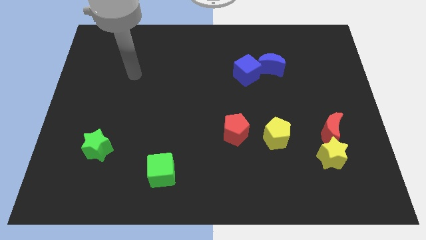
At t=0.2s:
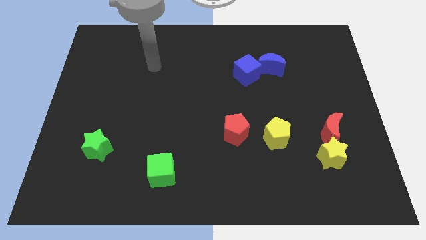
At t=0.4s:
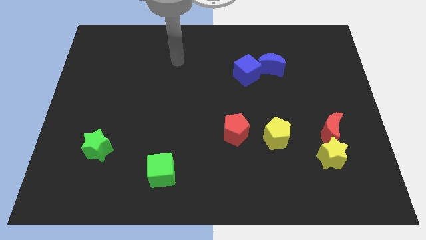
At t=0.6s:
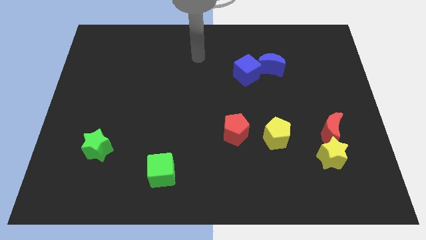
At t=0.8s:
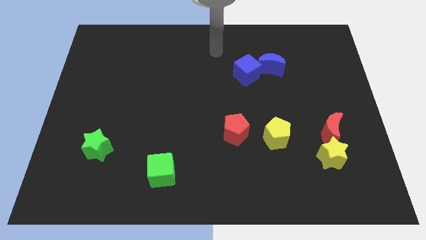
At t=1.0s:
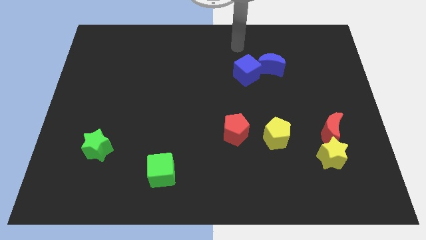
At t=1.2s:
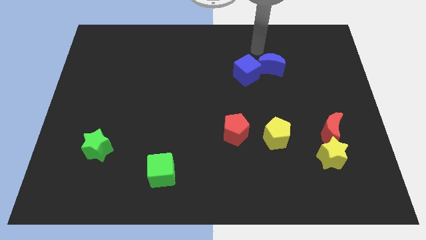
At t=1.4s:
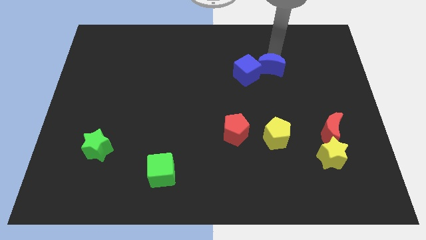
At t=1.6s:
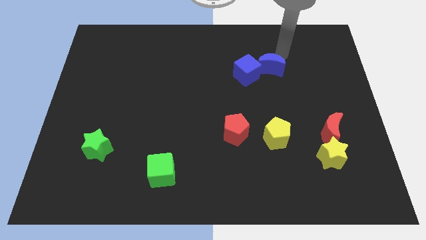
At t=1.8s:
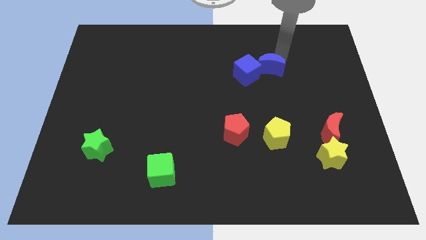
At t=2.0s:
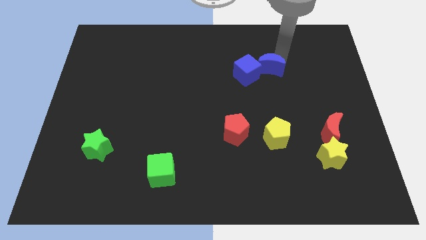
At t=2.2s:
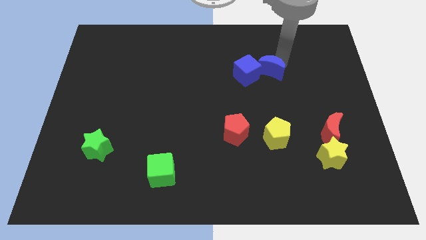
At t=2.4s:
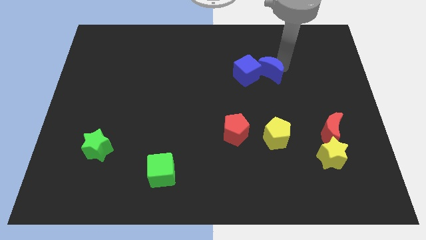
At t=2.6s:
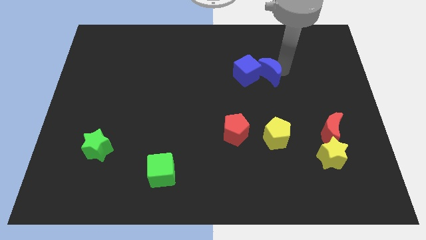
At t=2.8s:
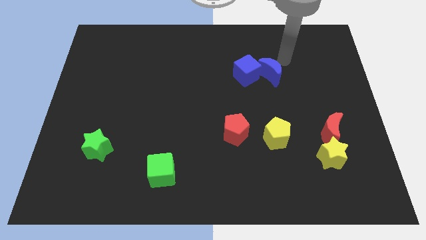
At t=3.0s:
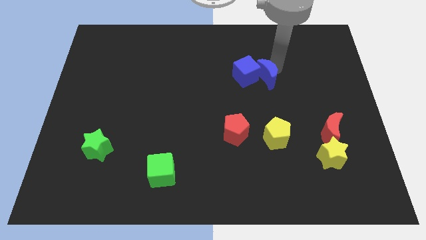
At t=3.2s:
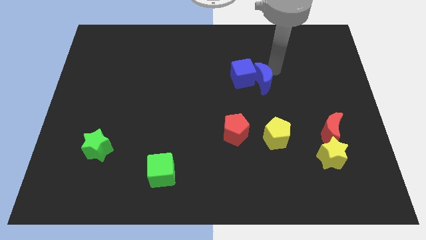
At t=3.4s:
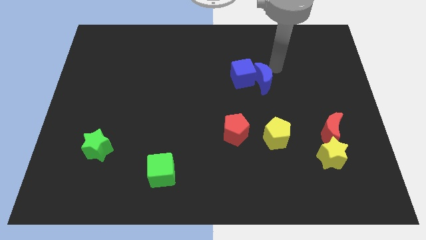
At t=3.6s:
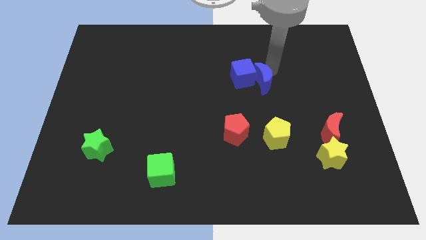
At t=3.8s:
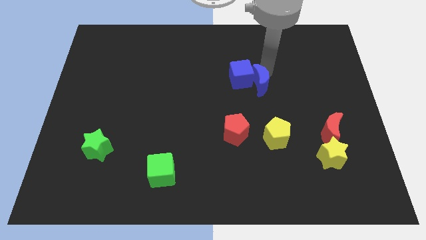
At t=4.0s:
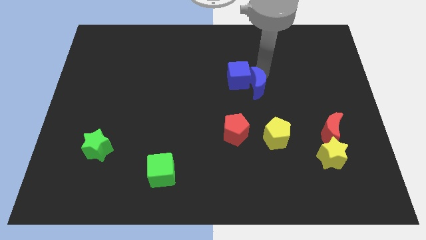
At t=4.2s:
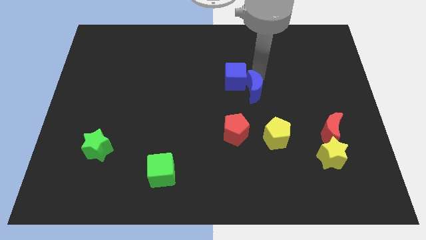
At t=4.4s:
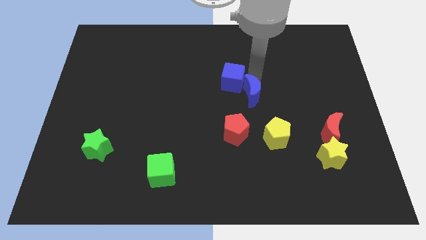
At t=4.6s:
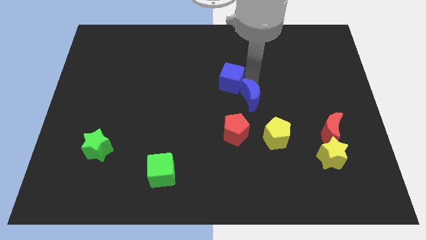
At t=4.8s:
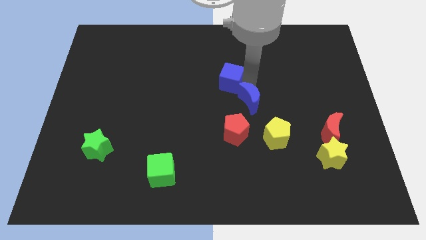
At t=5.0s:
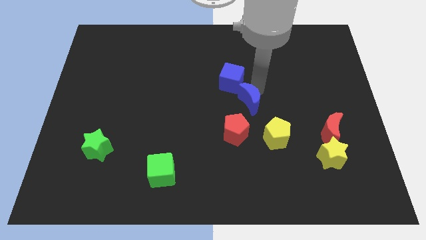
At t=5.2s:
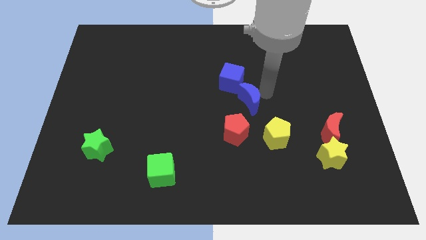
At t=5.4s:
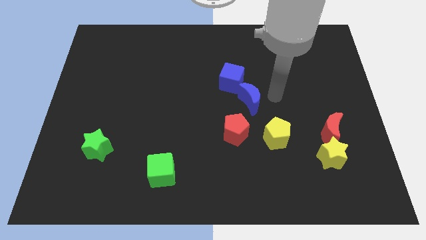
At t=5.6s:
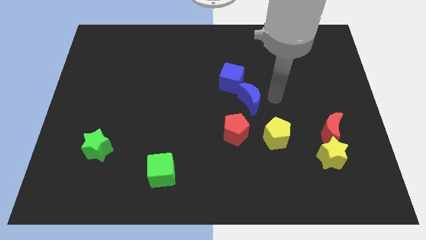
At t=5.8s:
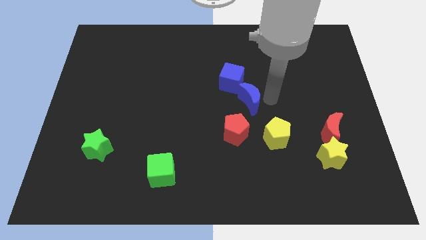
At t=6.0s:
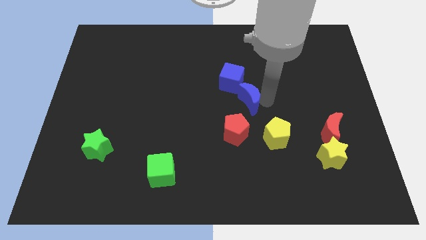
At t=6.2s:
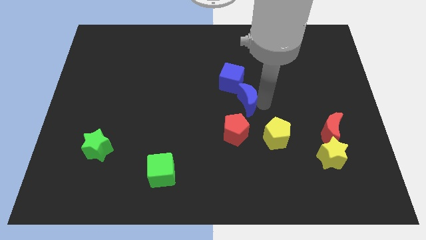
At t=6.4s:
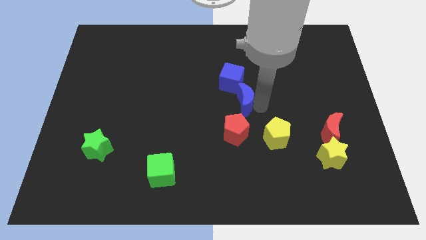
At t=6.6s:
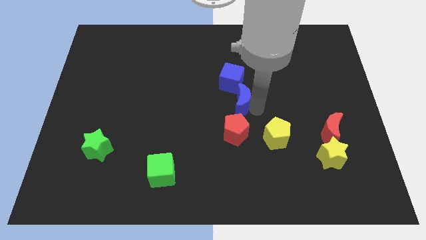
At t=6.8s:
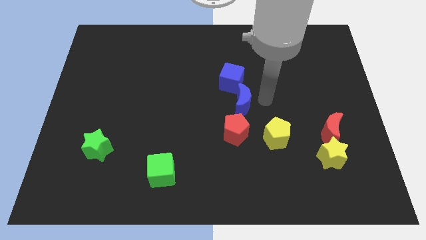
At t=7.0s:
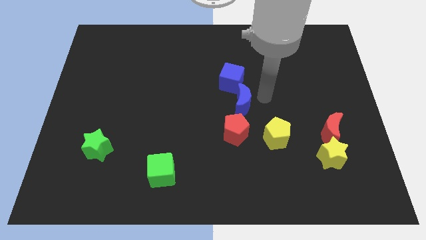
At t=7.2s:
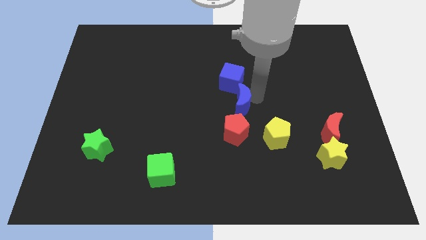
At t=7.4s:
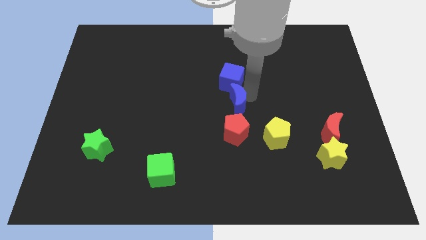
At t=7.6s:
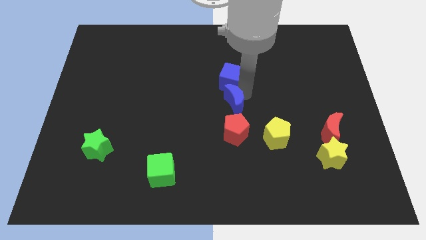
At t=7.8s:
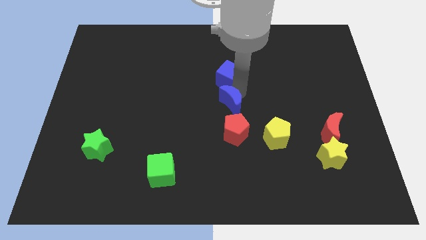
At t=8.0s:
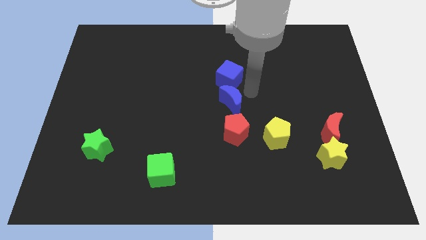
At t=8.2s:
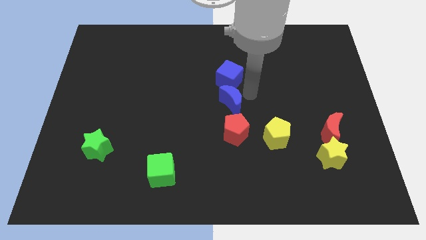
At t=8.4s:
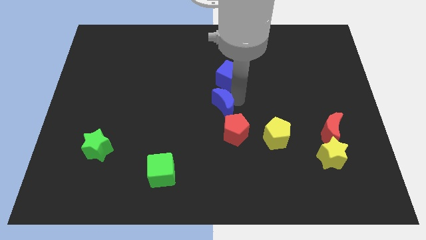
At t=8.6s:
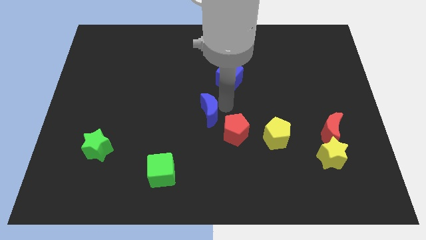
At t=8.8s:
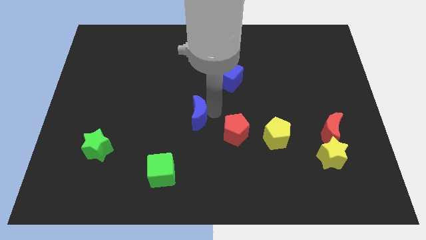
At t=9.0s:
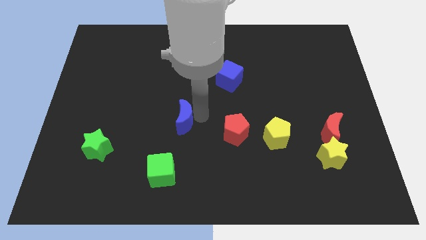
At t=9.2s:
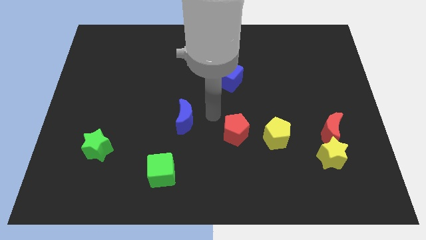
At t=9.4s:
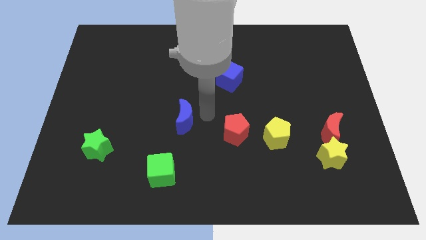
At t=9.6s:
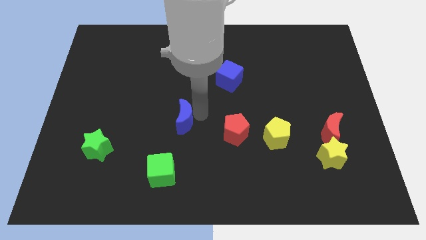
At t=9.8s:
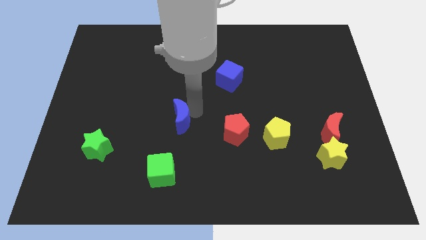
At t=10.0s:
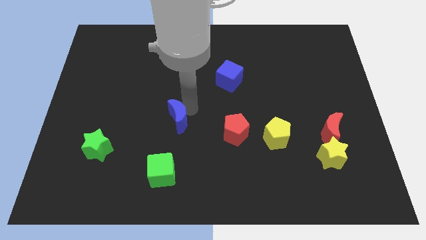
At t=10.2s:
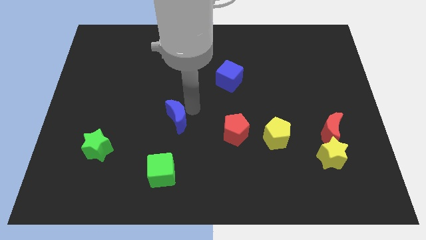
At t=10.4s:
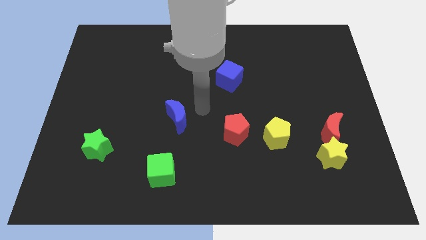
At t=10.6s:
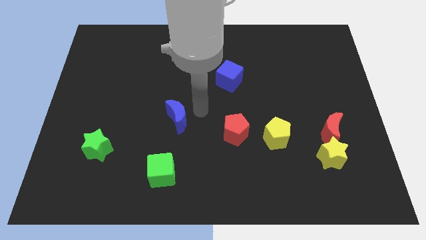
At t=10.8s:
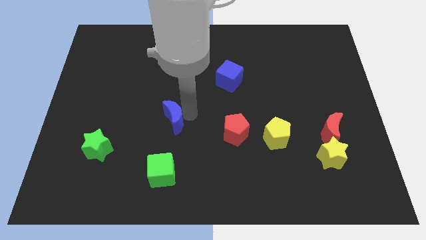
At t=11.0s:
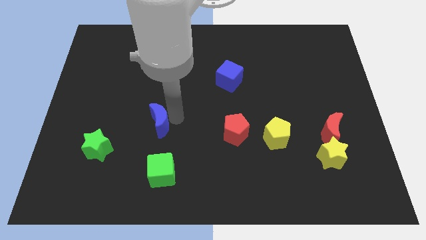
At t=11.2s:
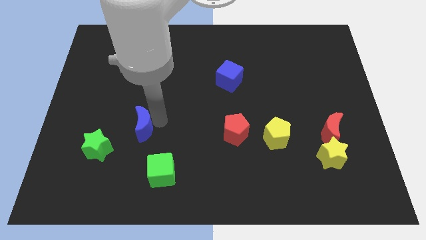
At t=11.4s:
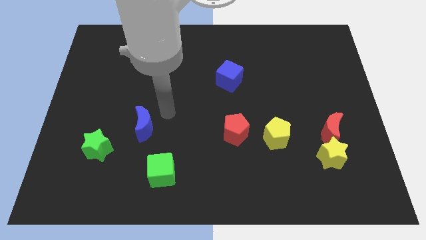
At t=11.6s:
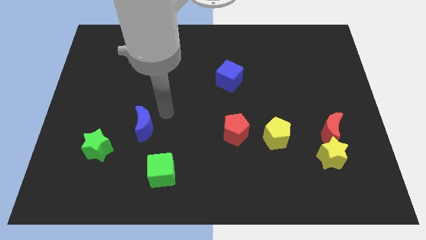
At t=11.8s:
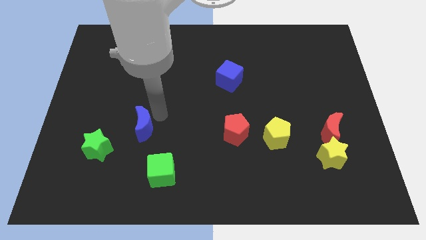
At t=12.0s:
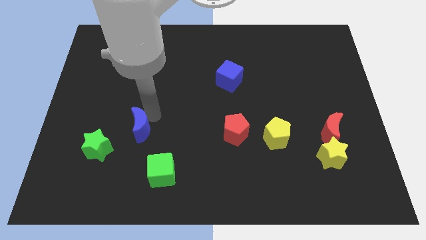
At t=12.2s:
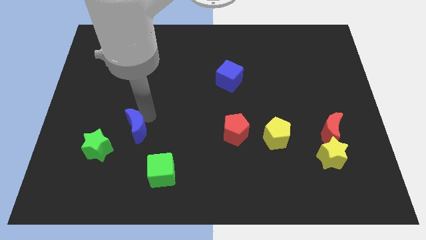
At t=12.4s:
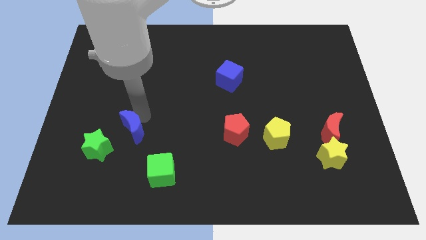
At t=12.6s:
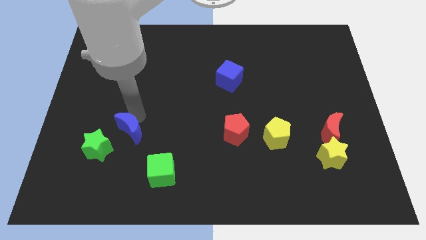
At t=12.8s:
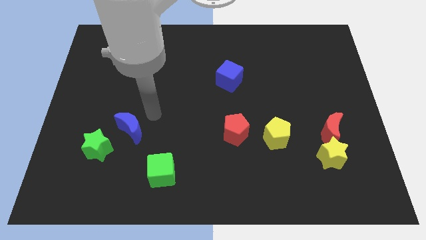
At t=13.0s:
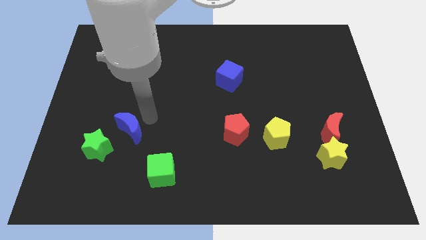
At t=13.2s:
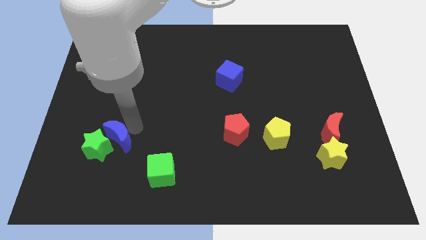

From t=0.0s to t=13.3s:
move the blue moon close to the green star

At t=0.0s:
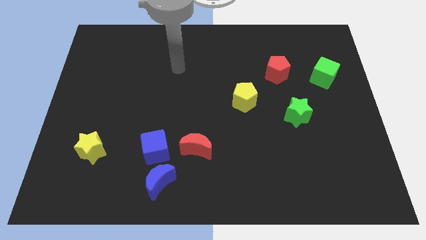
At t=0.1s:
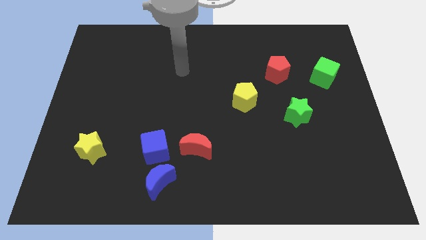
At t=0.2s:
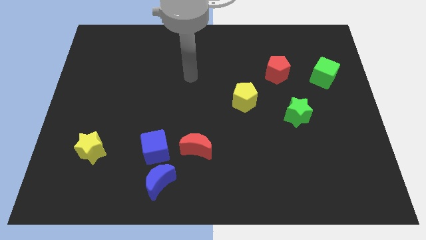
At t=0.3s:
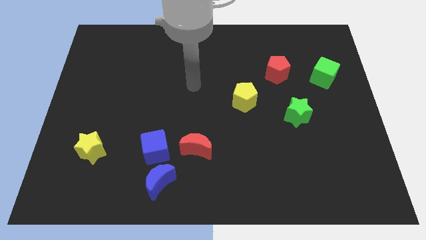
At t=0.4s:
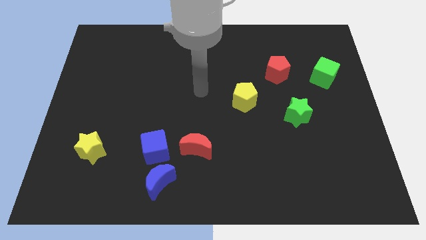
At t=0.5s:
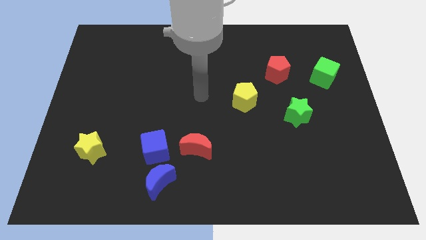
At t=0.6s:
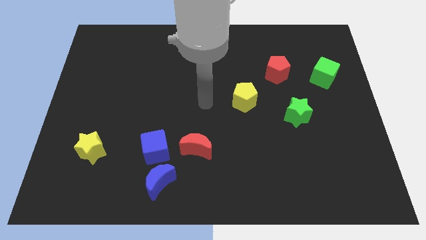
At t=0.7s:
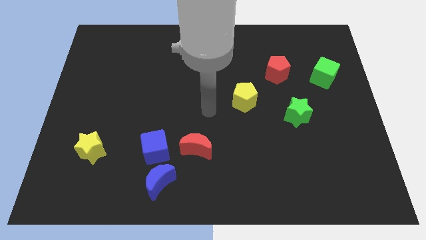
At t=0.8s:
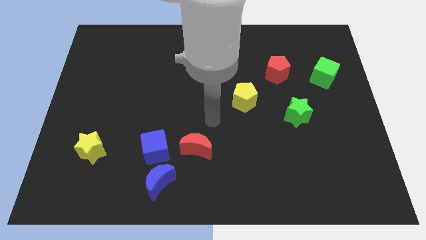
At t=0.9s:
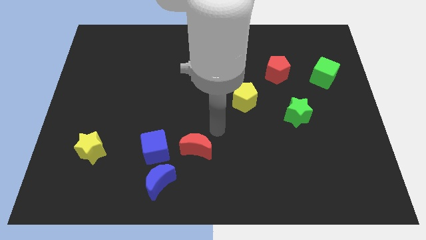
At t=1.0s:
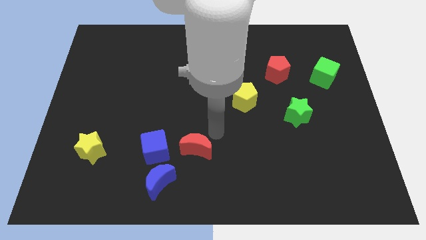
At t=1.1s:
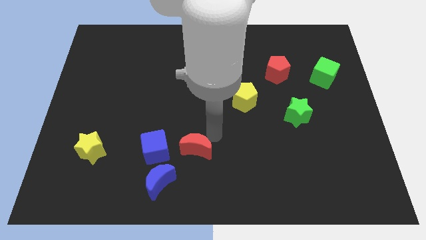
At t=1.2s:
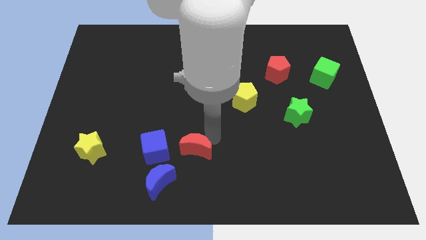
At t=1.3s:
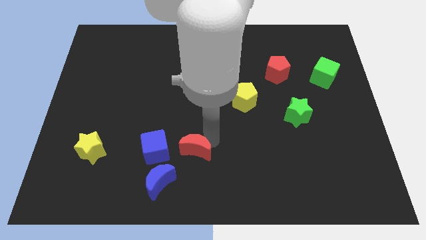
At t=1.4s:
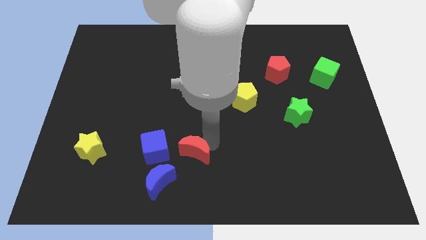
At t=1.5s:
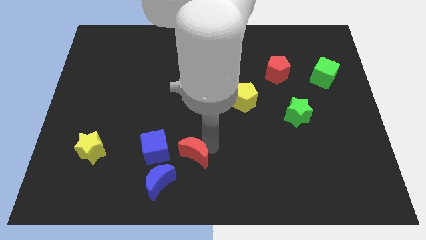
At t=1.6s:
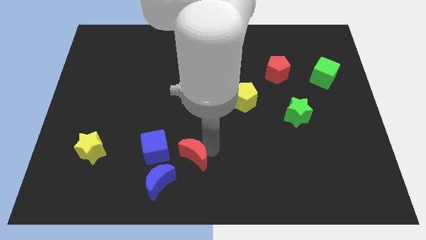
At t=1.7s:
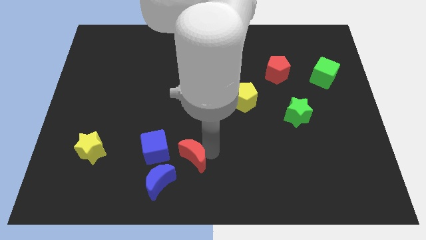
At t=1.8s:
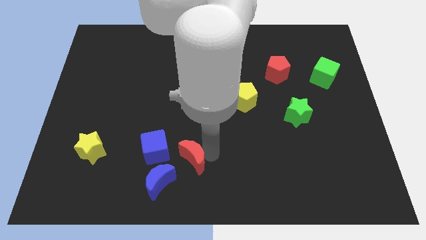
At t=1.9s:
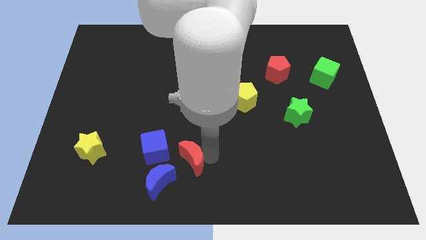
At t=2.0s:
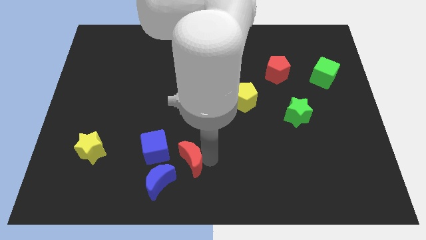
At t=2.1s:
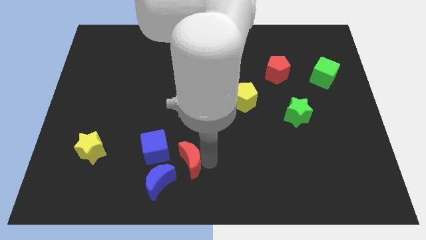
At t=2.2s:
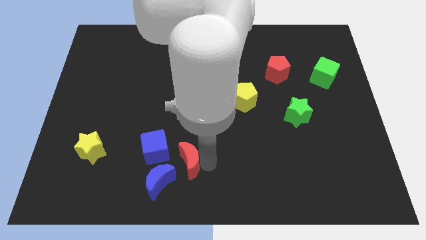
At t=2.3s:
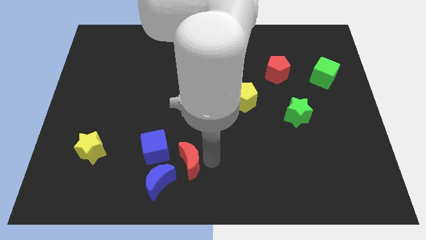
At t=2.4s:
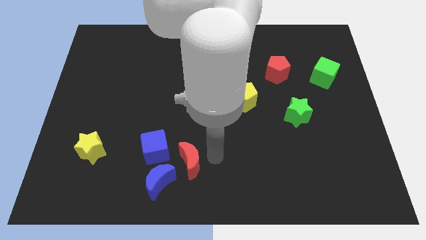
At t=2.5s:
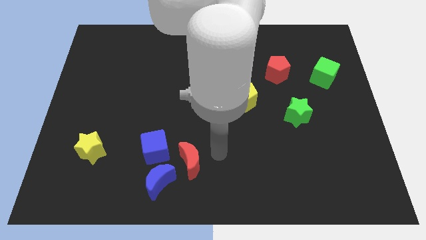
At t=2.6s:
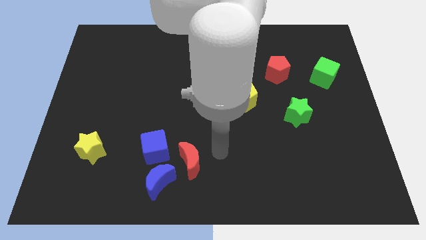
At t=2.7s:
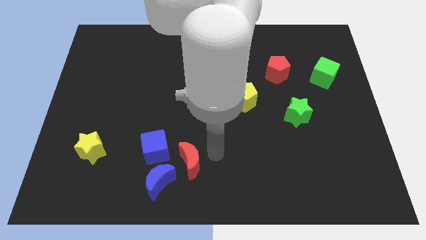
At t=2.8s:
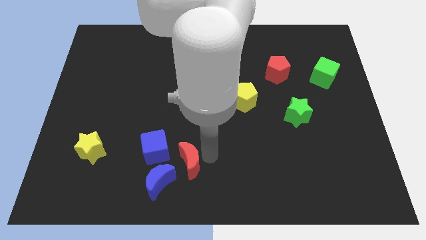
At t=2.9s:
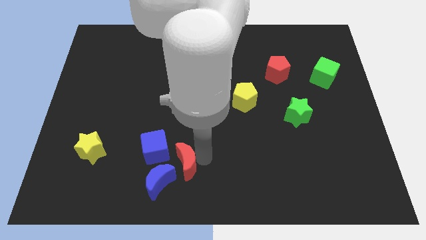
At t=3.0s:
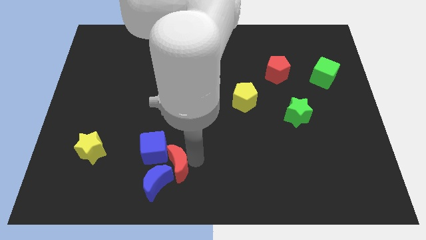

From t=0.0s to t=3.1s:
slide the red moon towards the blue moon
